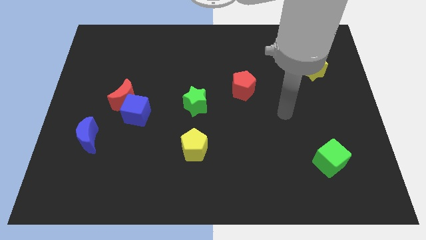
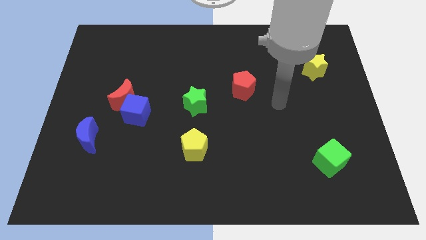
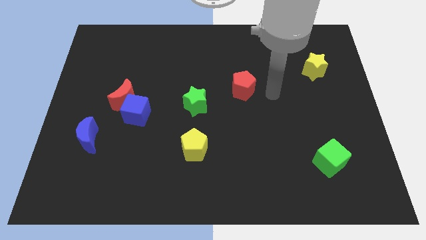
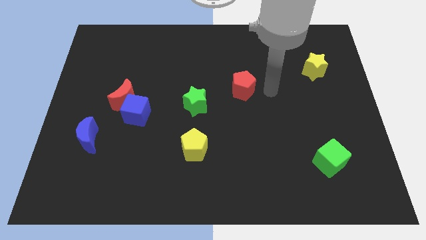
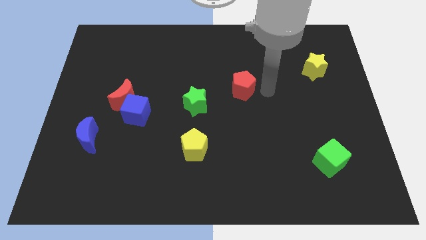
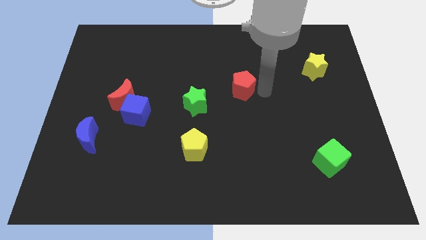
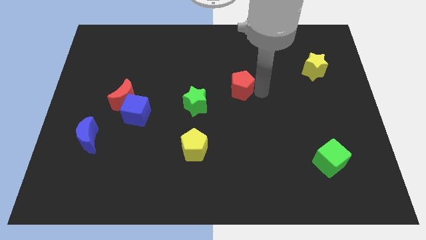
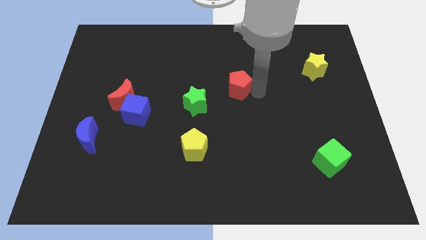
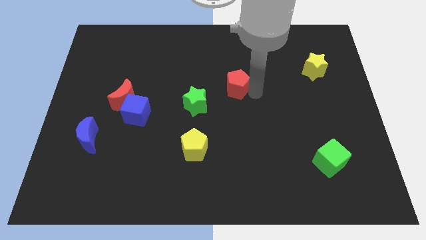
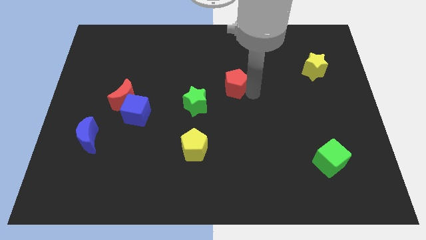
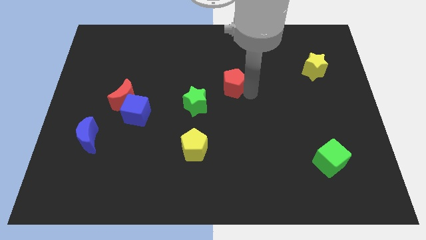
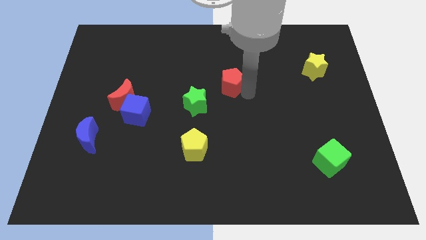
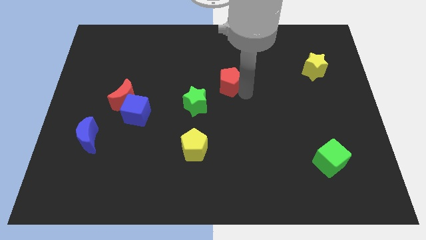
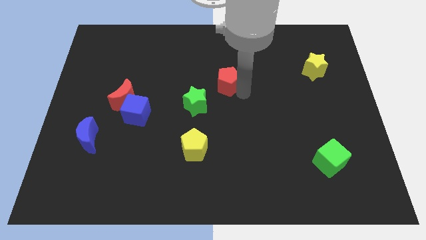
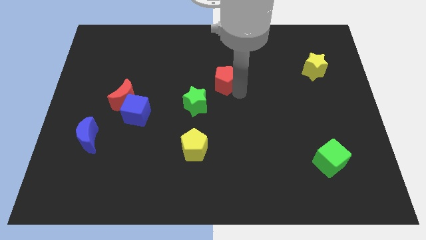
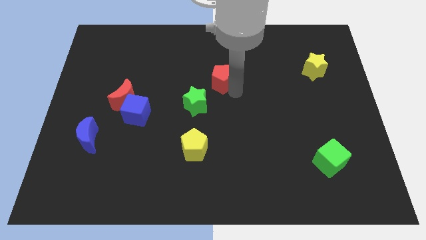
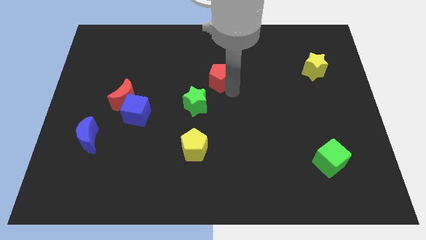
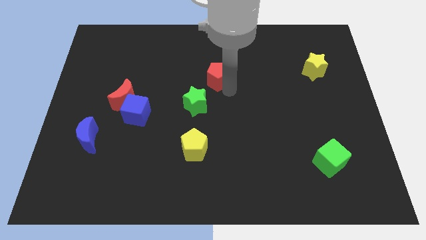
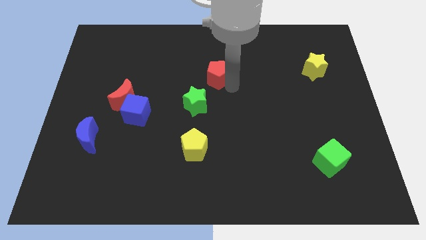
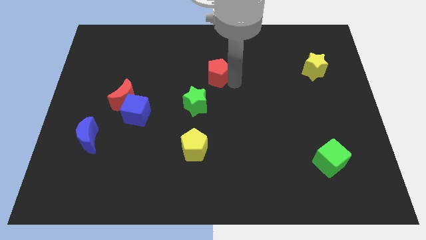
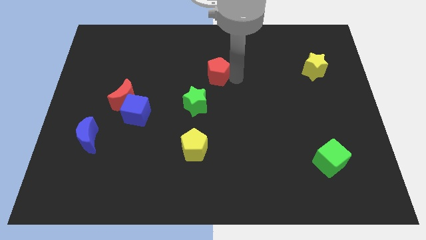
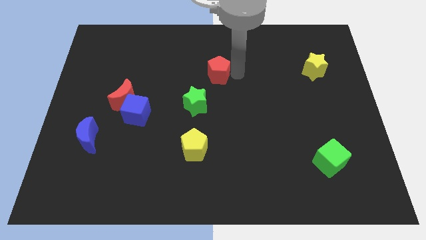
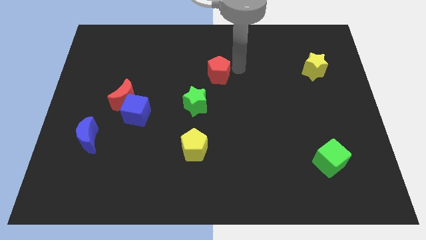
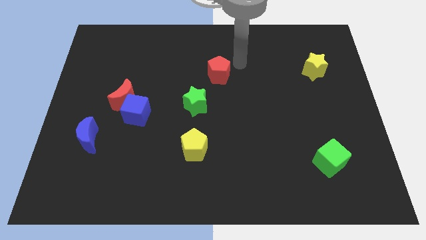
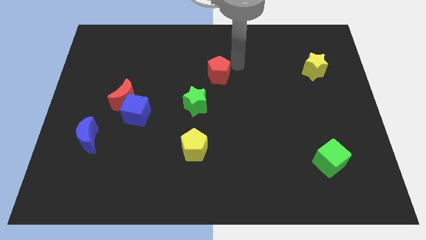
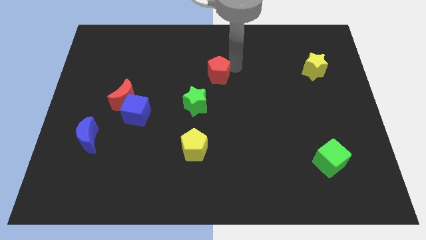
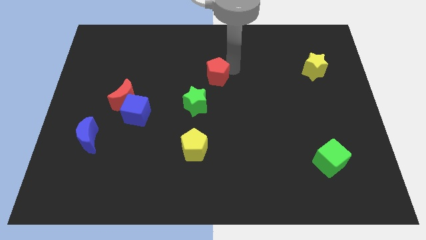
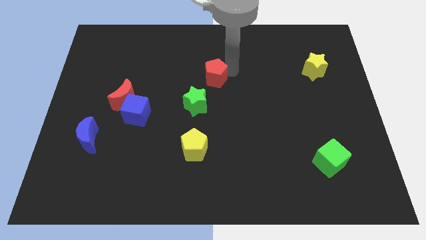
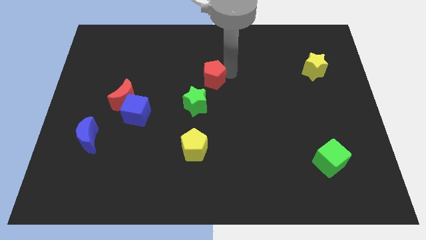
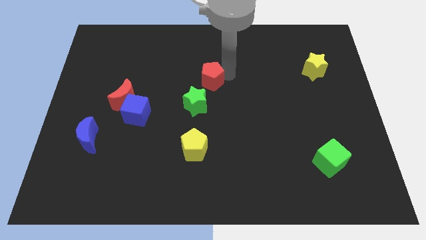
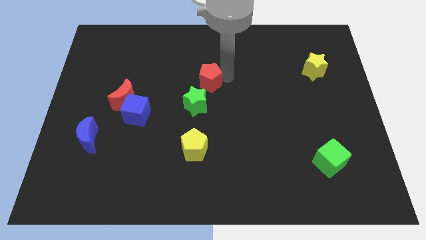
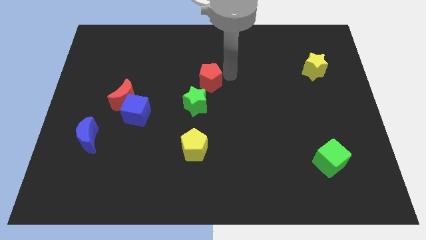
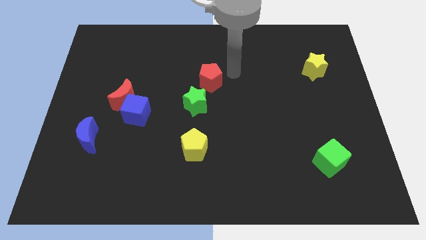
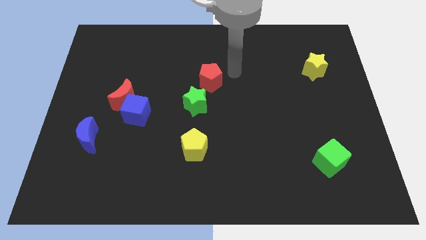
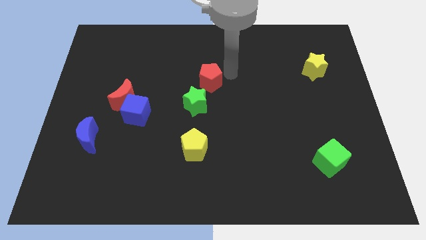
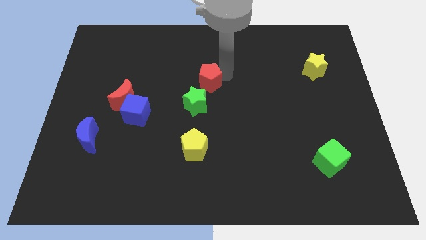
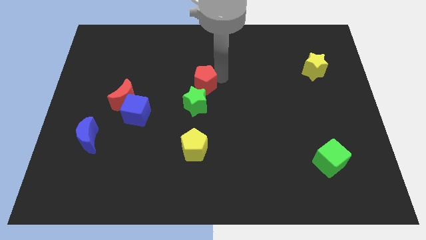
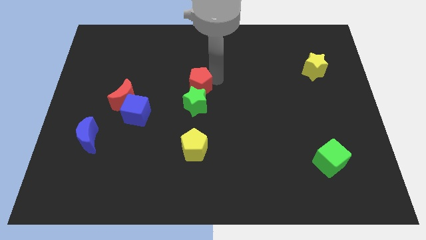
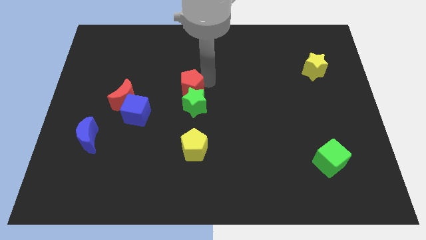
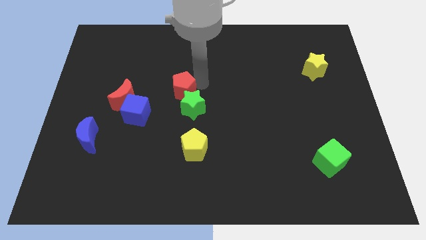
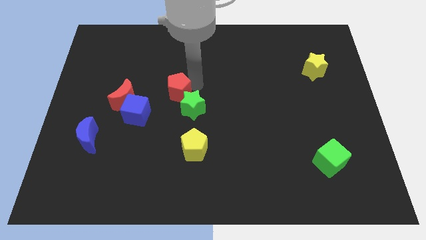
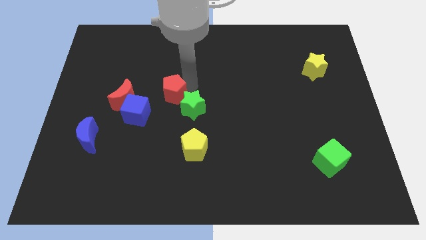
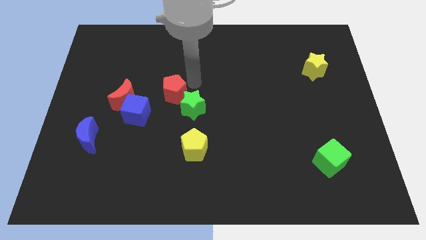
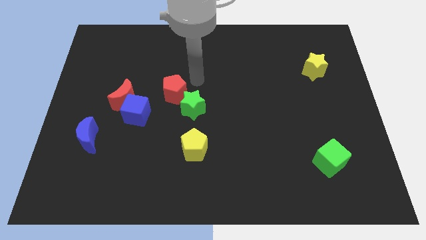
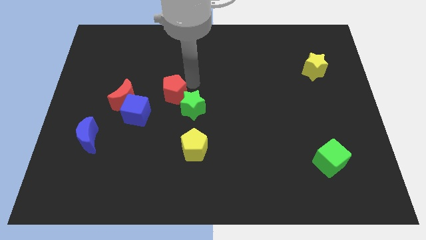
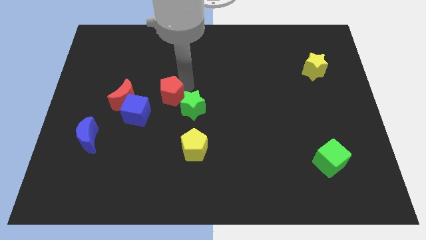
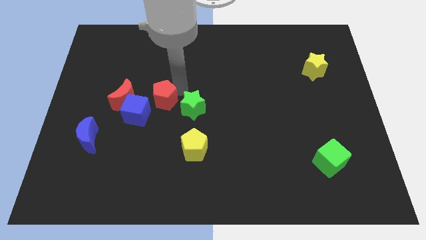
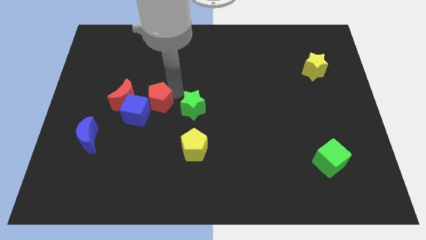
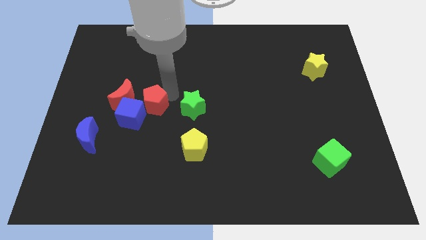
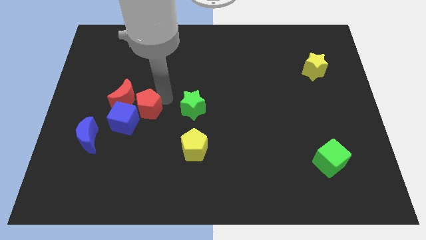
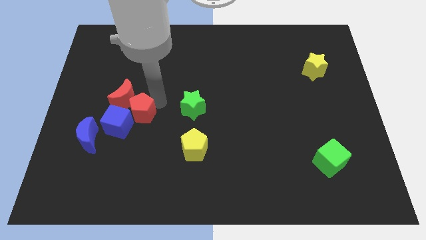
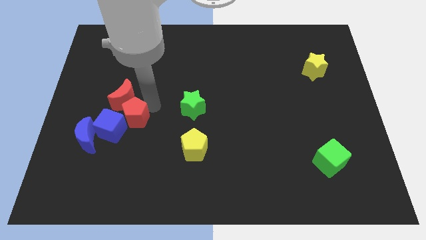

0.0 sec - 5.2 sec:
put the red pentagon to the blue cube
